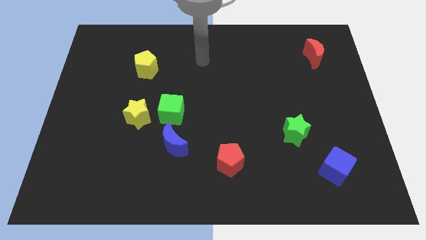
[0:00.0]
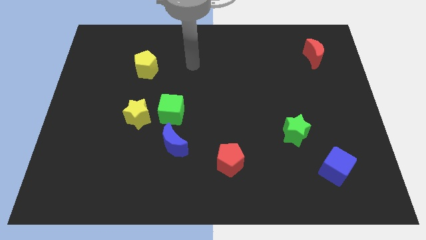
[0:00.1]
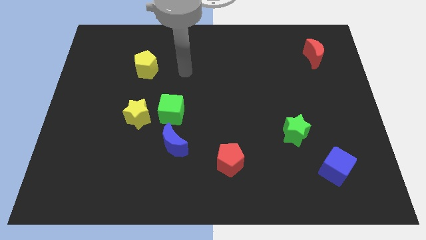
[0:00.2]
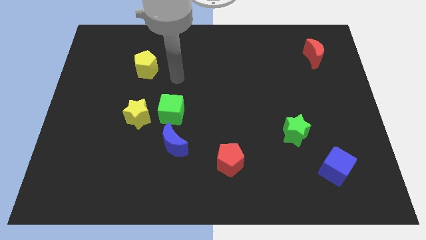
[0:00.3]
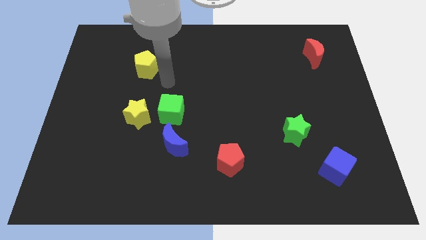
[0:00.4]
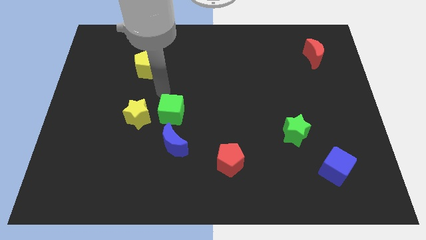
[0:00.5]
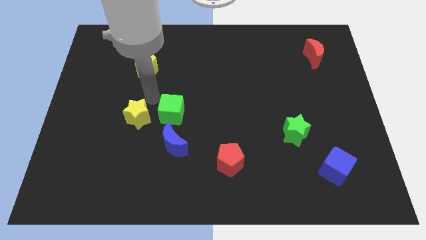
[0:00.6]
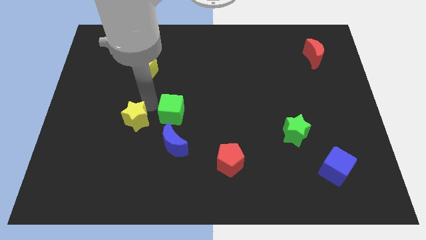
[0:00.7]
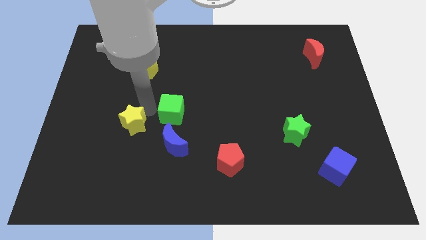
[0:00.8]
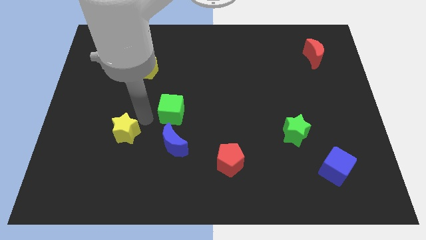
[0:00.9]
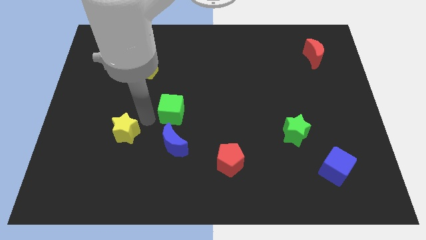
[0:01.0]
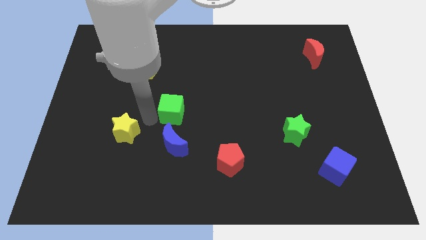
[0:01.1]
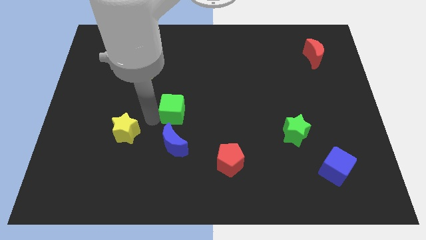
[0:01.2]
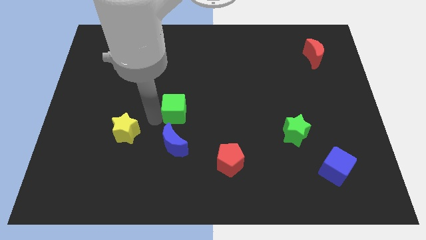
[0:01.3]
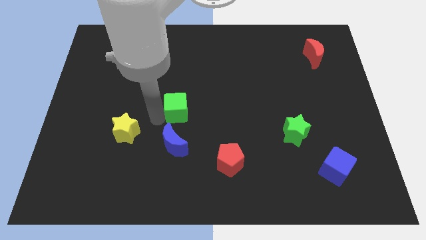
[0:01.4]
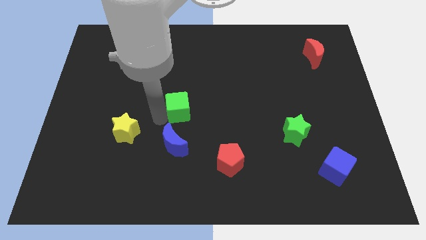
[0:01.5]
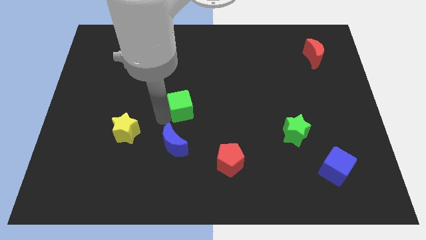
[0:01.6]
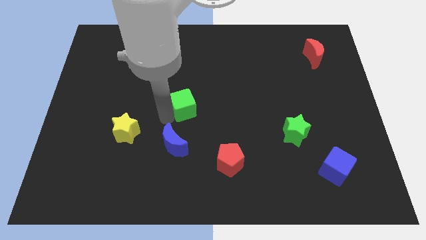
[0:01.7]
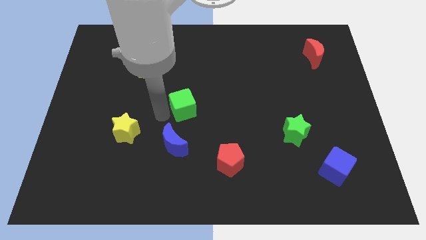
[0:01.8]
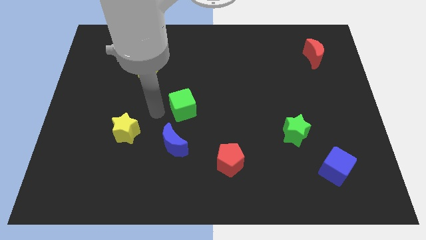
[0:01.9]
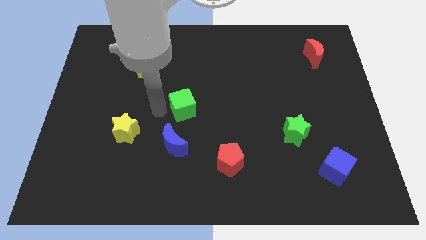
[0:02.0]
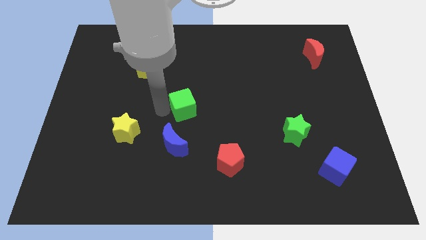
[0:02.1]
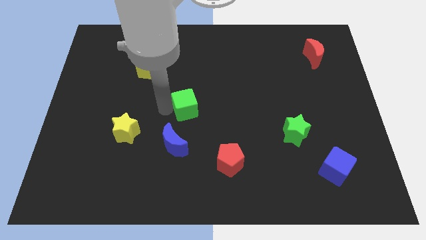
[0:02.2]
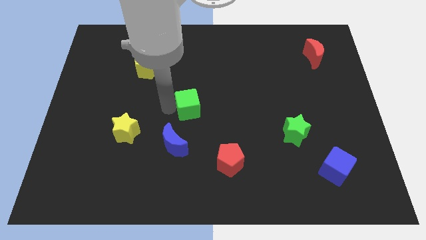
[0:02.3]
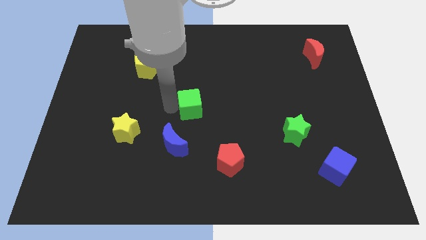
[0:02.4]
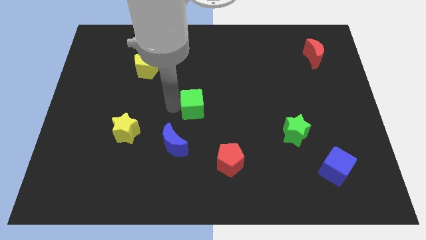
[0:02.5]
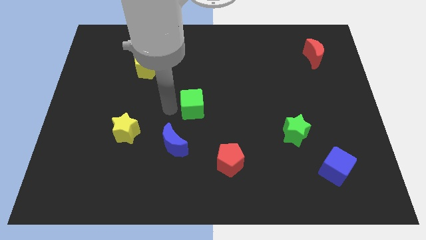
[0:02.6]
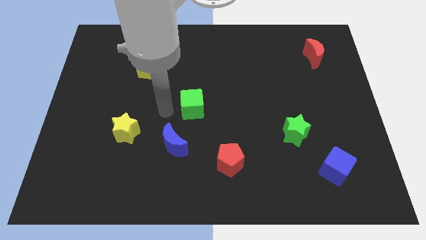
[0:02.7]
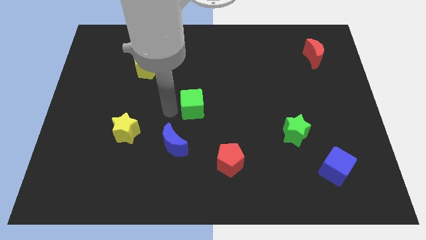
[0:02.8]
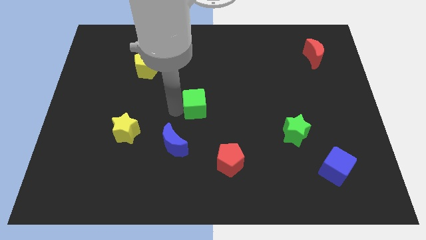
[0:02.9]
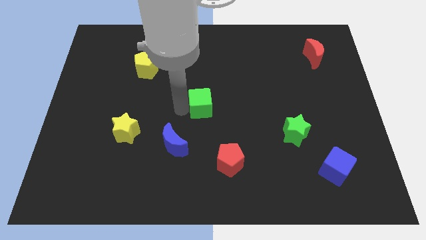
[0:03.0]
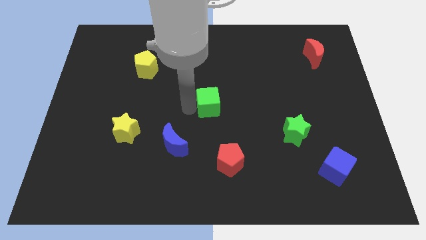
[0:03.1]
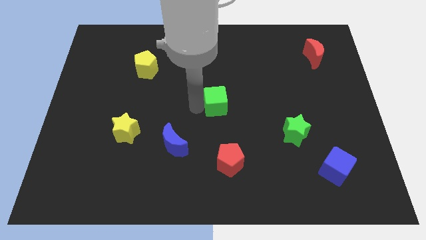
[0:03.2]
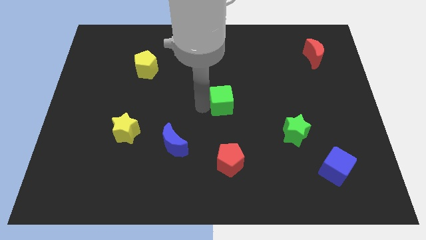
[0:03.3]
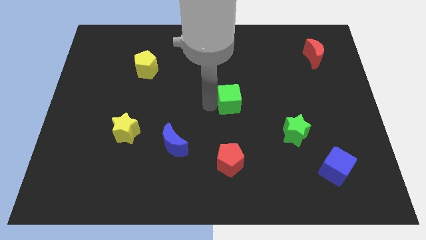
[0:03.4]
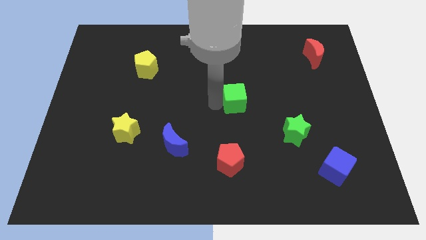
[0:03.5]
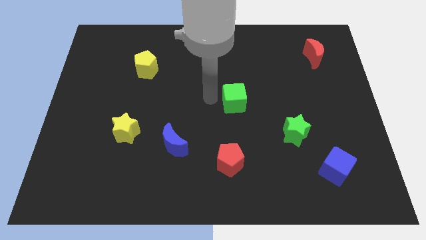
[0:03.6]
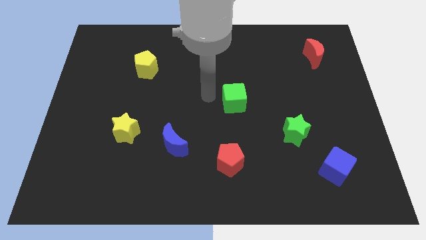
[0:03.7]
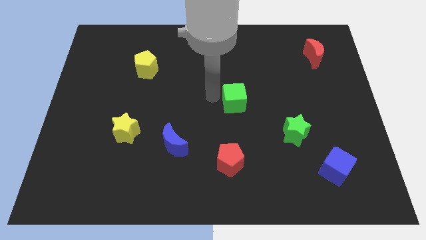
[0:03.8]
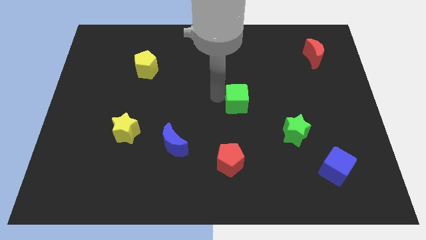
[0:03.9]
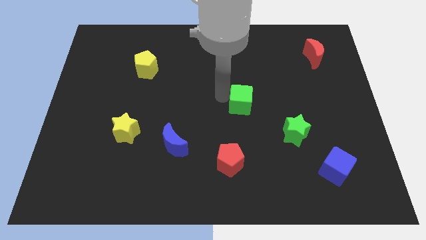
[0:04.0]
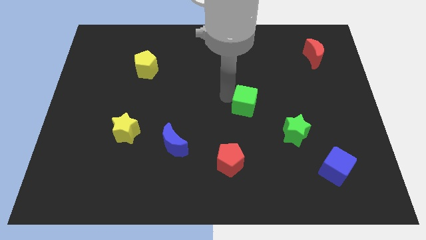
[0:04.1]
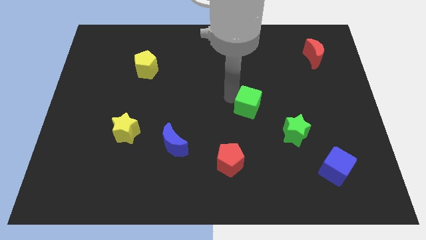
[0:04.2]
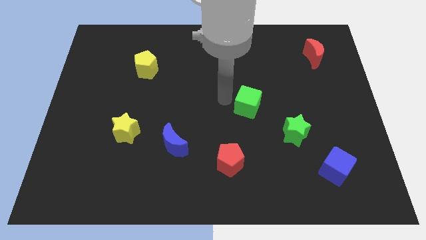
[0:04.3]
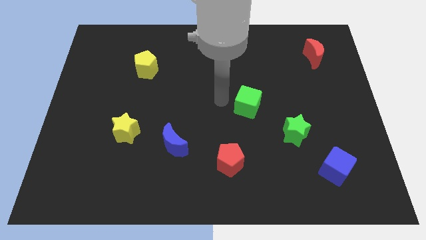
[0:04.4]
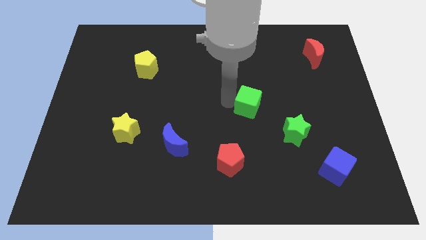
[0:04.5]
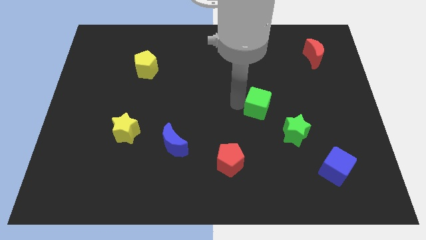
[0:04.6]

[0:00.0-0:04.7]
slide the green cube right

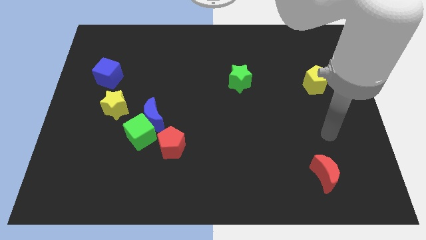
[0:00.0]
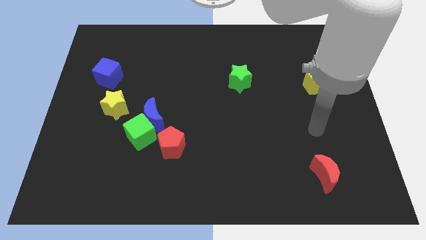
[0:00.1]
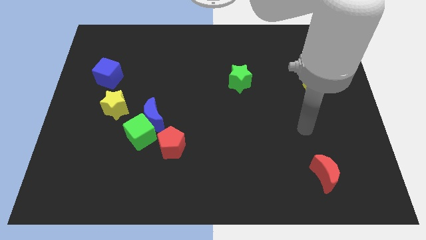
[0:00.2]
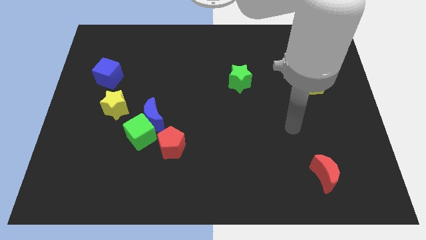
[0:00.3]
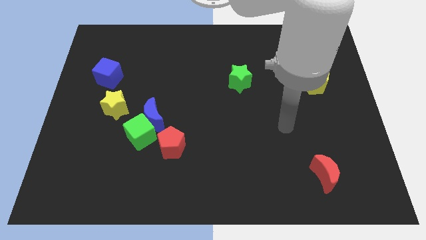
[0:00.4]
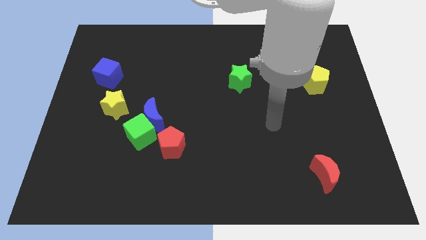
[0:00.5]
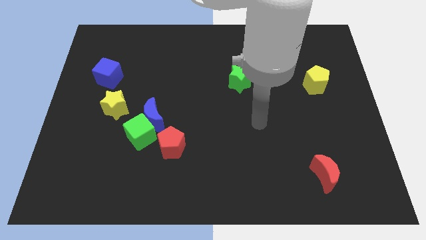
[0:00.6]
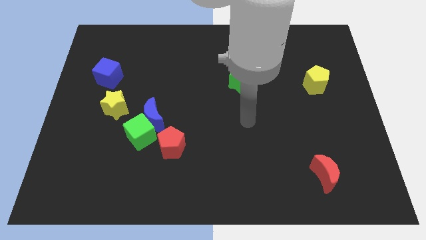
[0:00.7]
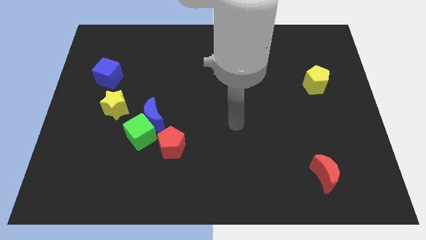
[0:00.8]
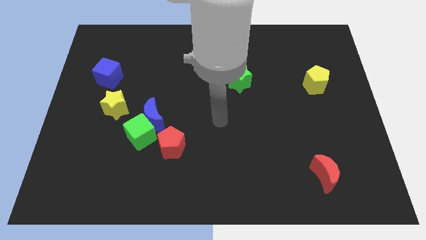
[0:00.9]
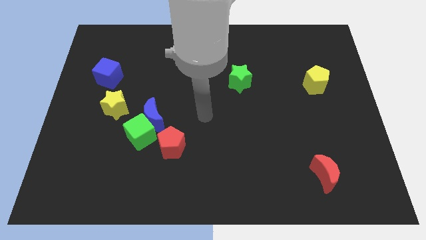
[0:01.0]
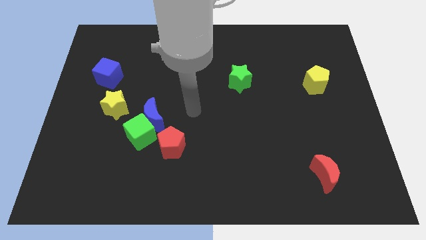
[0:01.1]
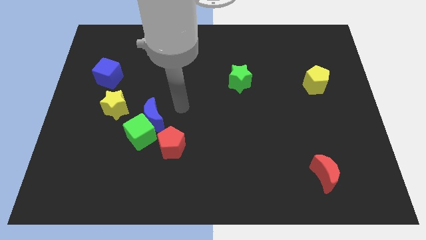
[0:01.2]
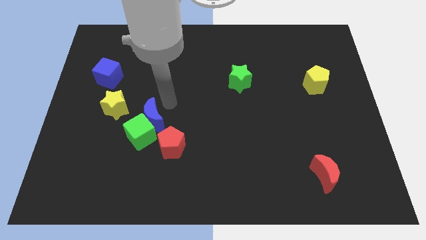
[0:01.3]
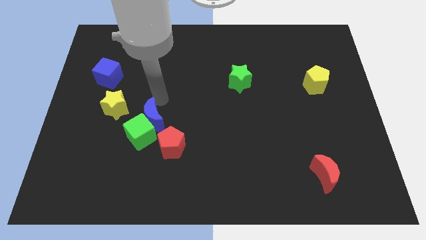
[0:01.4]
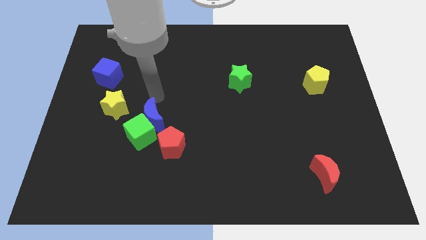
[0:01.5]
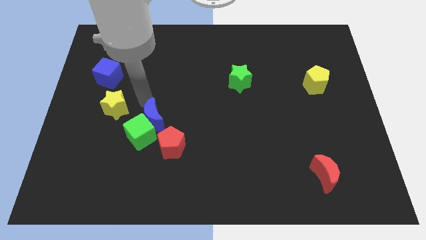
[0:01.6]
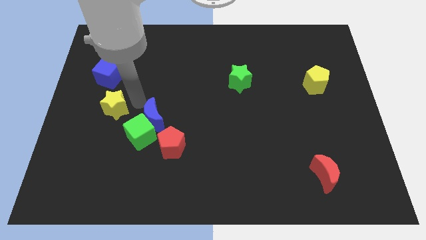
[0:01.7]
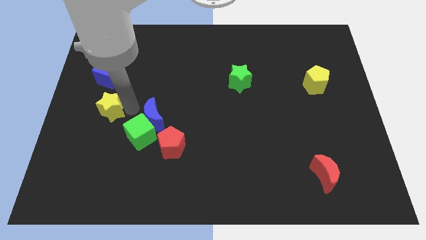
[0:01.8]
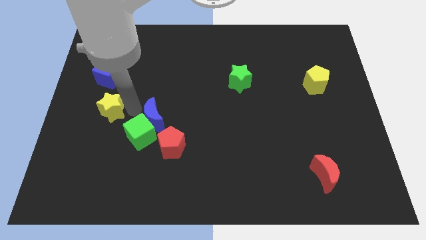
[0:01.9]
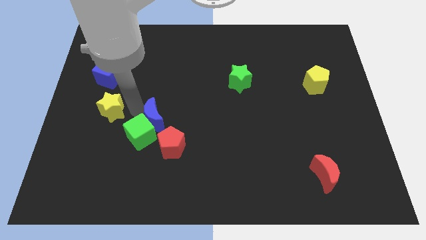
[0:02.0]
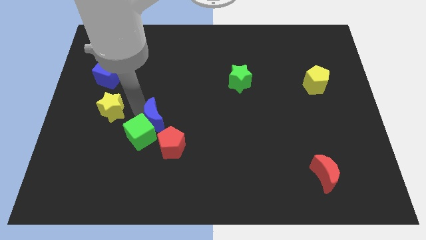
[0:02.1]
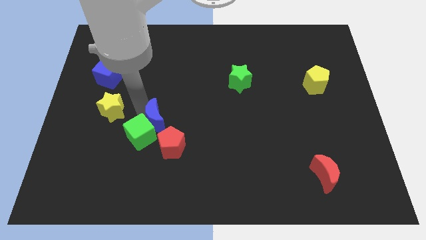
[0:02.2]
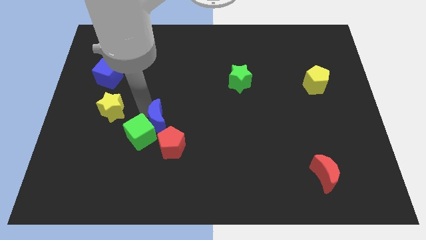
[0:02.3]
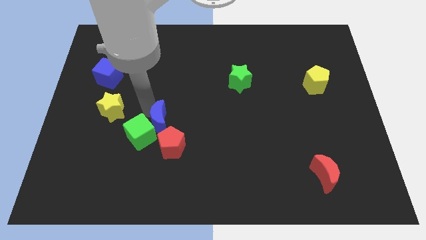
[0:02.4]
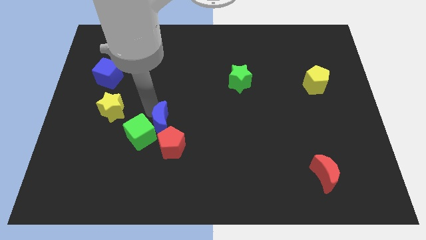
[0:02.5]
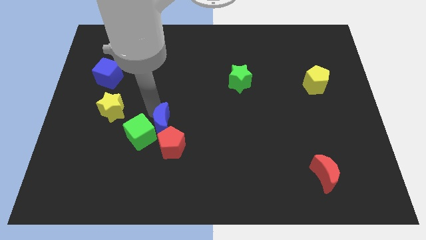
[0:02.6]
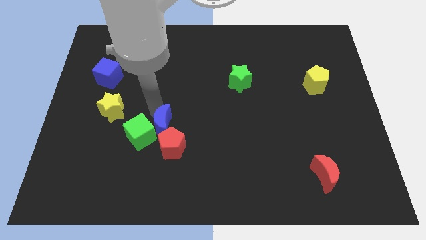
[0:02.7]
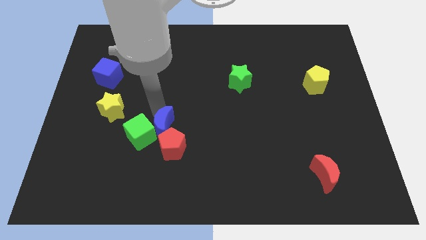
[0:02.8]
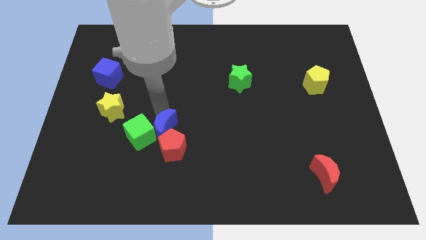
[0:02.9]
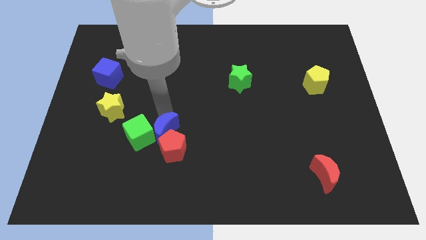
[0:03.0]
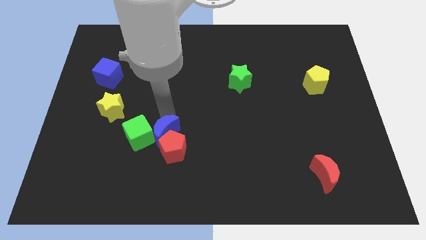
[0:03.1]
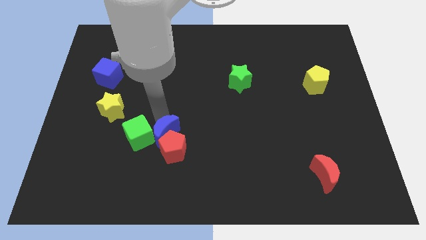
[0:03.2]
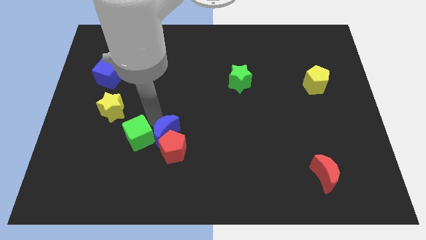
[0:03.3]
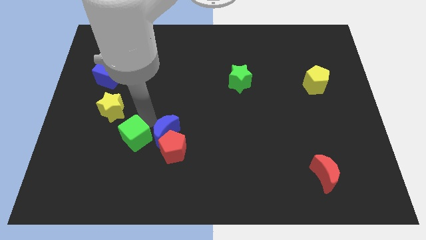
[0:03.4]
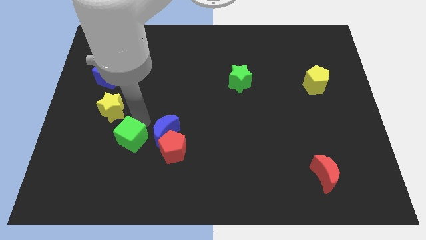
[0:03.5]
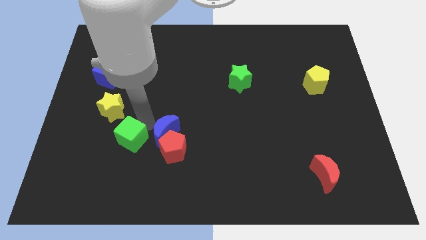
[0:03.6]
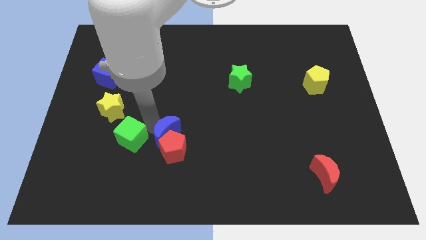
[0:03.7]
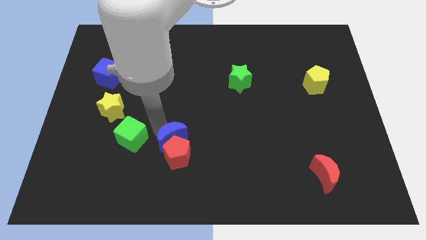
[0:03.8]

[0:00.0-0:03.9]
slightly move the blue moon downwards and to the right diagonally
